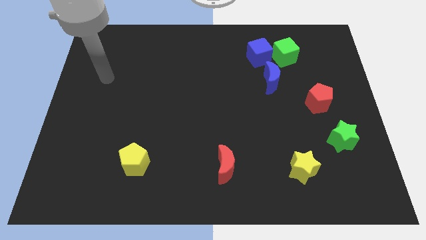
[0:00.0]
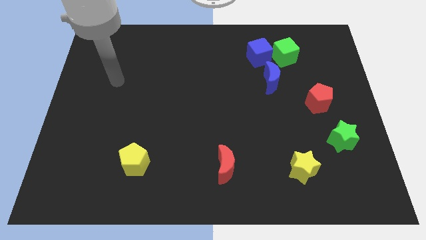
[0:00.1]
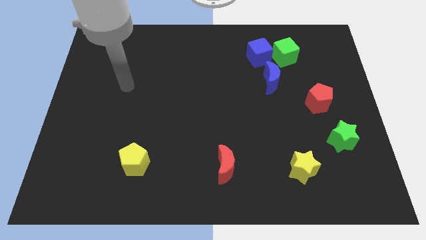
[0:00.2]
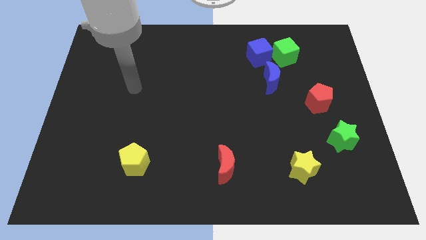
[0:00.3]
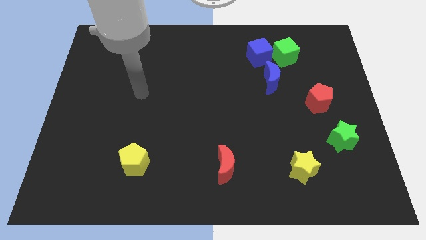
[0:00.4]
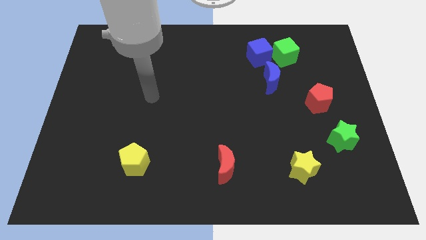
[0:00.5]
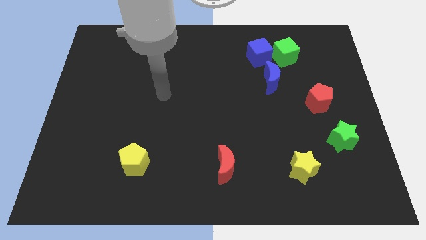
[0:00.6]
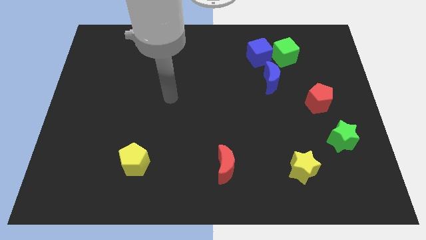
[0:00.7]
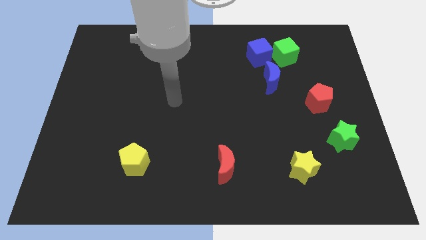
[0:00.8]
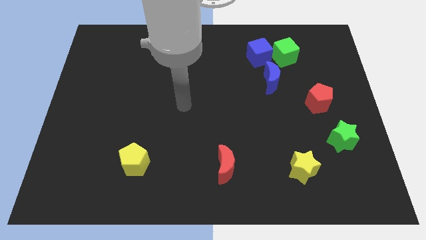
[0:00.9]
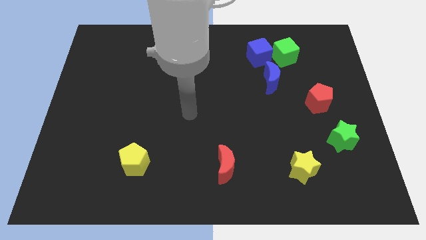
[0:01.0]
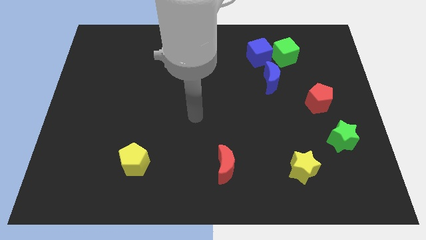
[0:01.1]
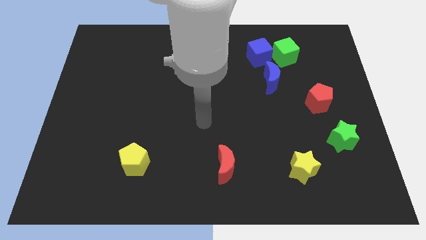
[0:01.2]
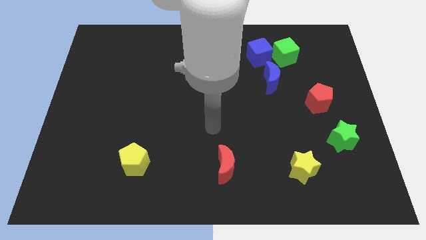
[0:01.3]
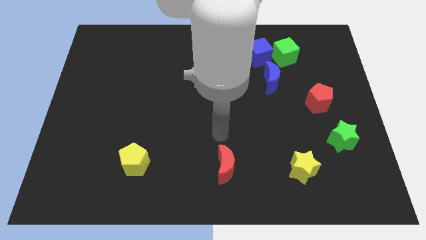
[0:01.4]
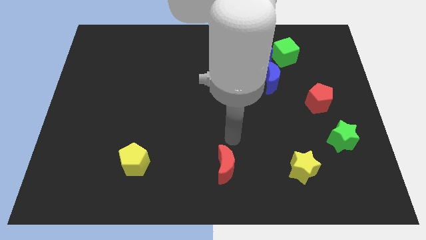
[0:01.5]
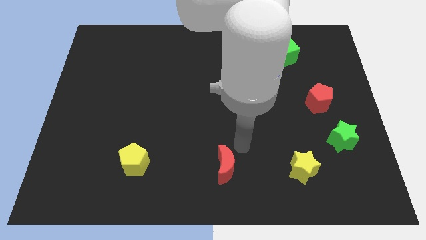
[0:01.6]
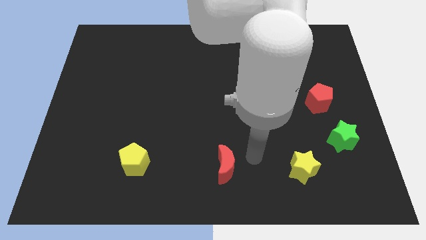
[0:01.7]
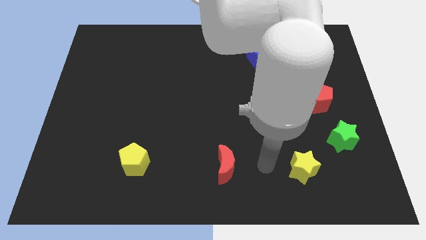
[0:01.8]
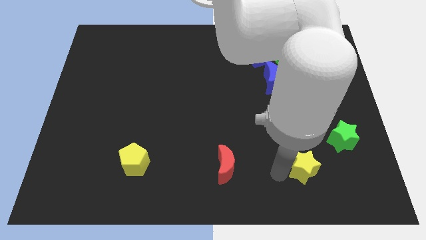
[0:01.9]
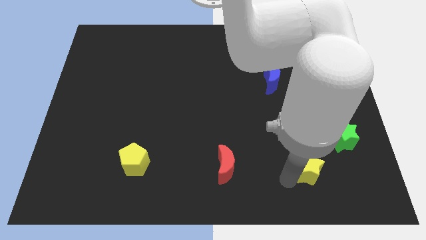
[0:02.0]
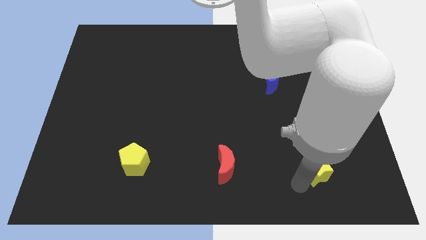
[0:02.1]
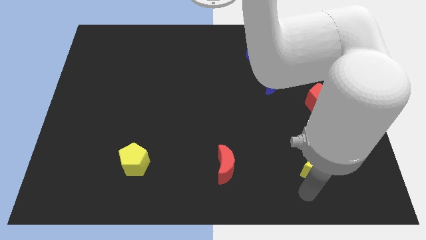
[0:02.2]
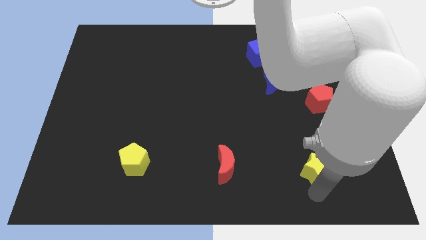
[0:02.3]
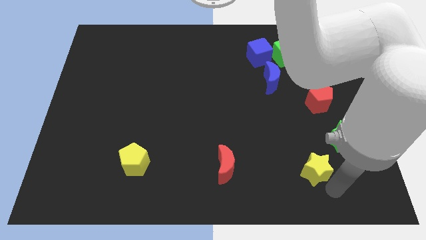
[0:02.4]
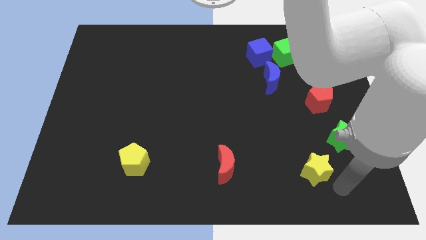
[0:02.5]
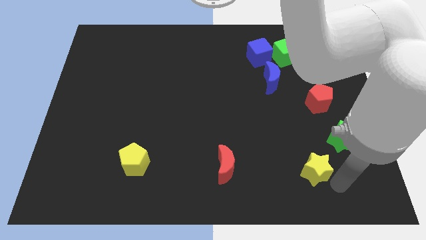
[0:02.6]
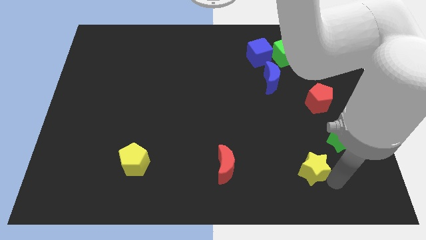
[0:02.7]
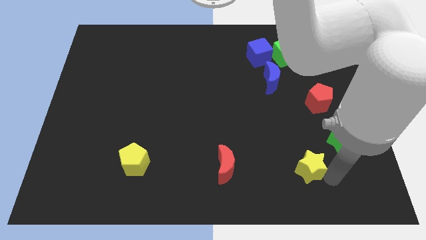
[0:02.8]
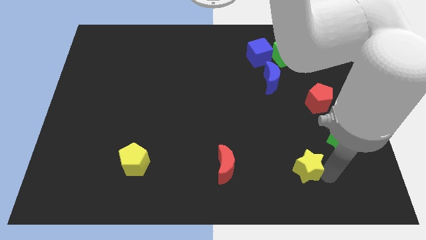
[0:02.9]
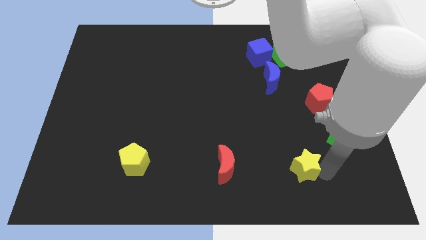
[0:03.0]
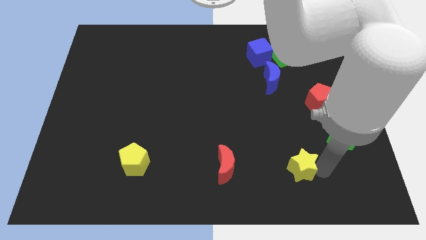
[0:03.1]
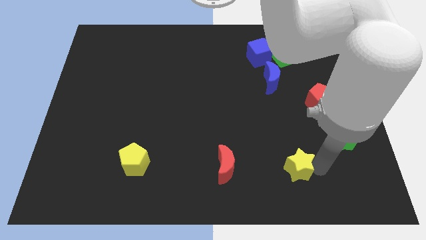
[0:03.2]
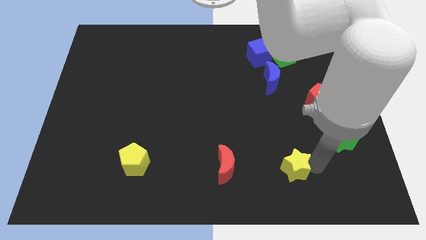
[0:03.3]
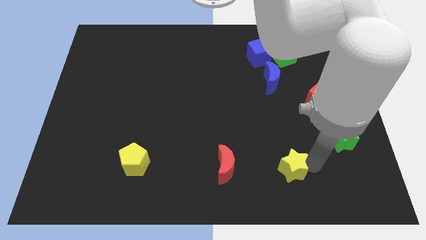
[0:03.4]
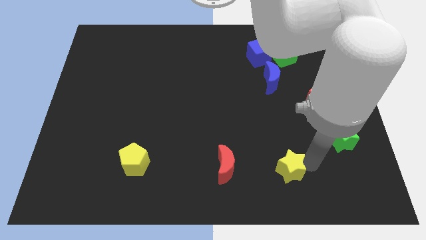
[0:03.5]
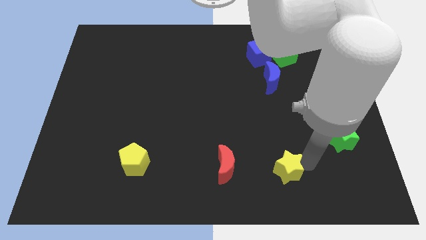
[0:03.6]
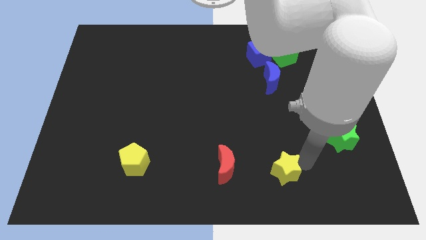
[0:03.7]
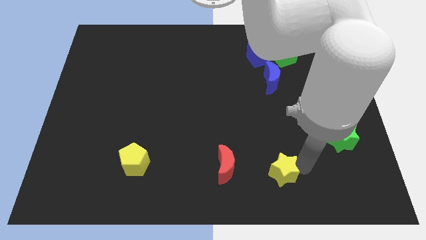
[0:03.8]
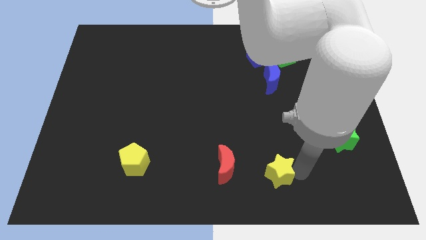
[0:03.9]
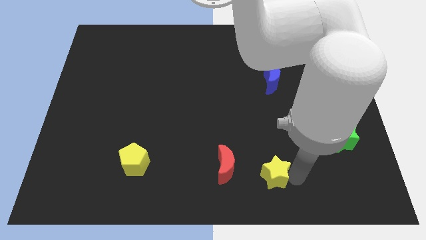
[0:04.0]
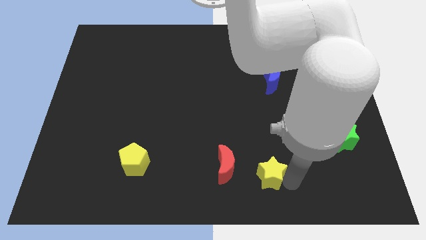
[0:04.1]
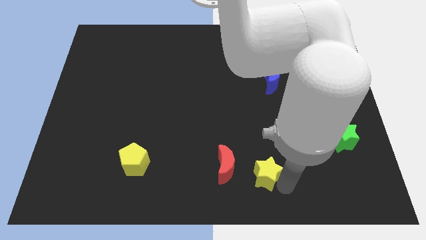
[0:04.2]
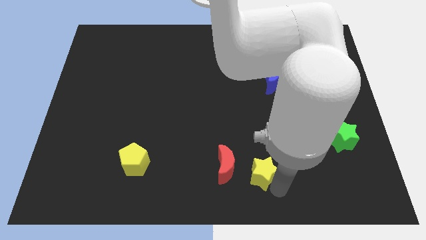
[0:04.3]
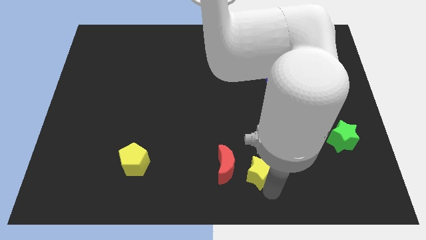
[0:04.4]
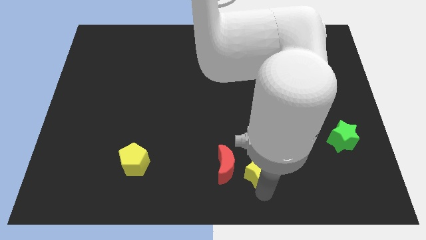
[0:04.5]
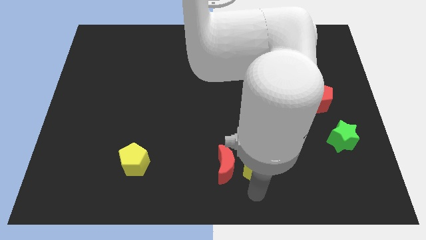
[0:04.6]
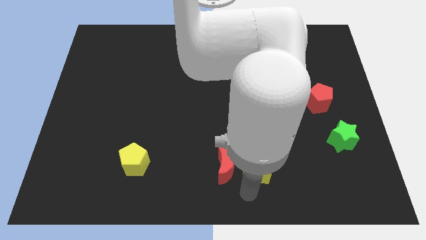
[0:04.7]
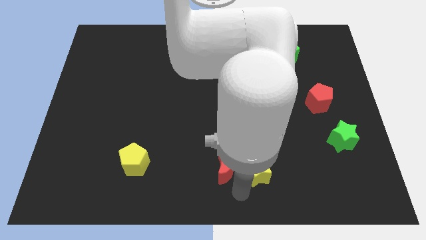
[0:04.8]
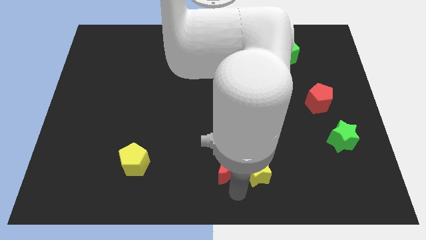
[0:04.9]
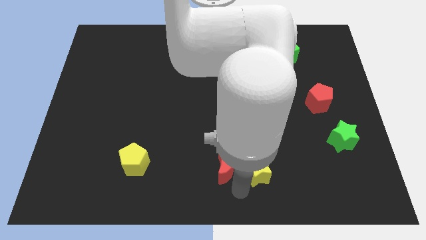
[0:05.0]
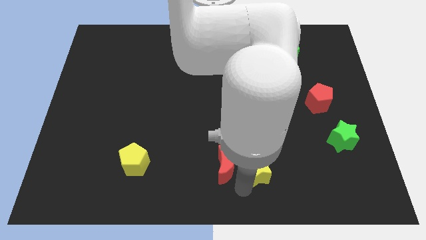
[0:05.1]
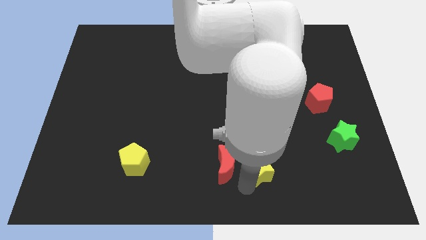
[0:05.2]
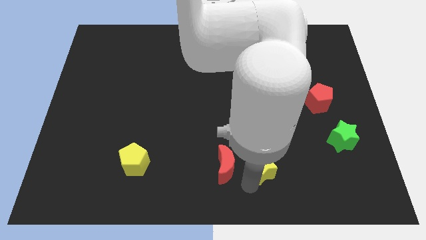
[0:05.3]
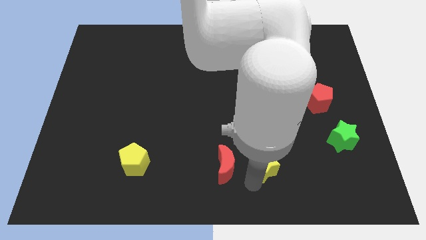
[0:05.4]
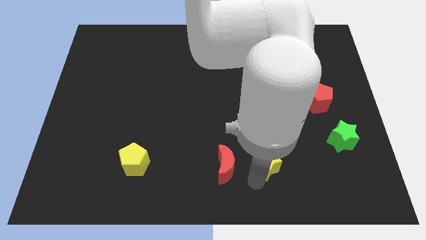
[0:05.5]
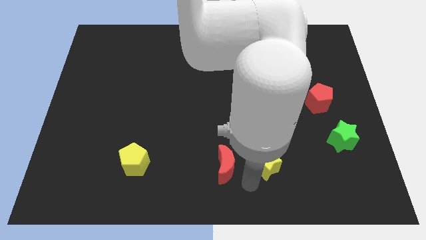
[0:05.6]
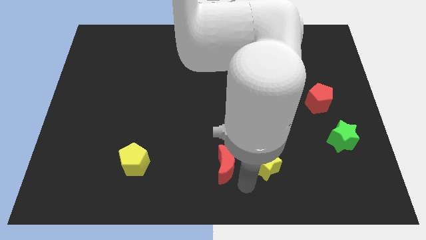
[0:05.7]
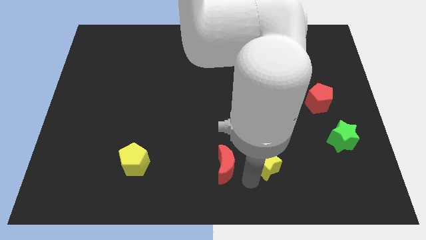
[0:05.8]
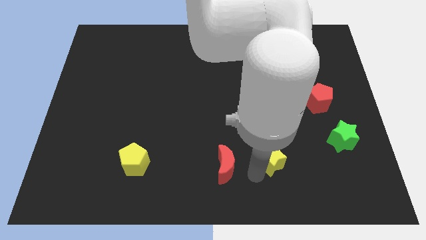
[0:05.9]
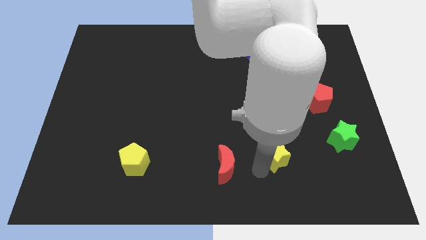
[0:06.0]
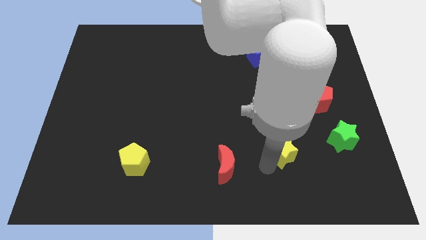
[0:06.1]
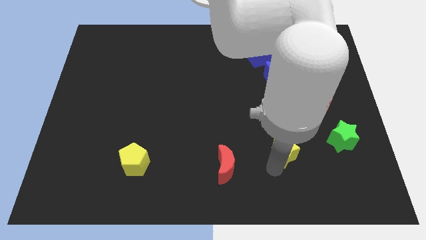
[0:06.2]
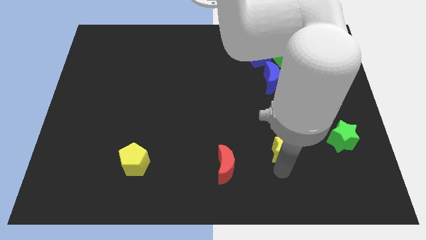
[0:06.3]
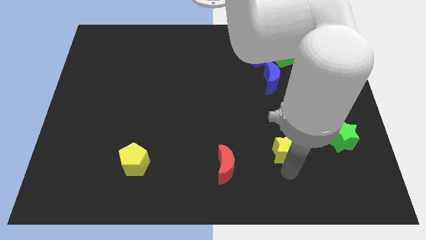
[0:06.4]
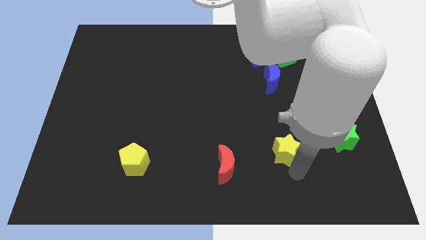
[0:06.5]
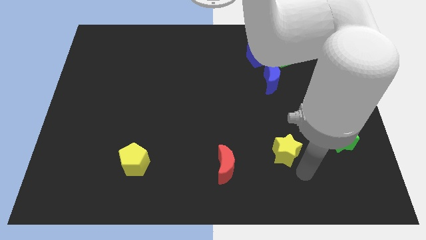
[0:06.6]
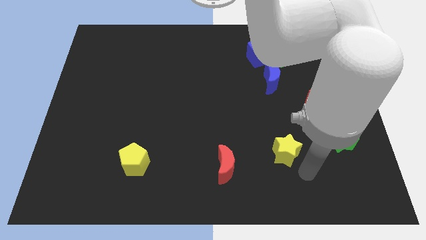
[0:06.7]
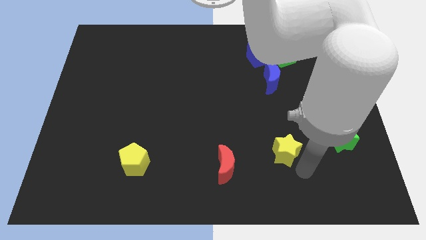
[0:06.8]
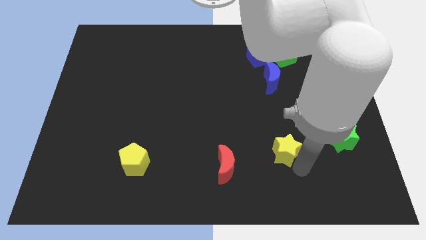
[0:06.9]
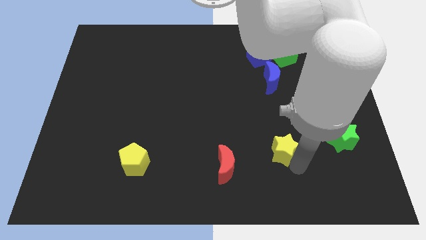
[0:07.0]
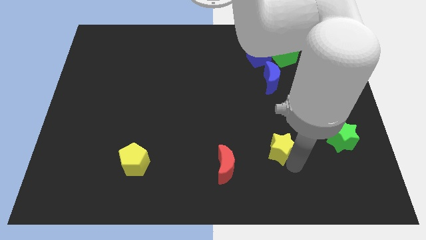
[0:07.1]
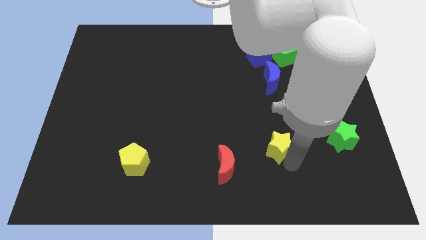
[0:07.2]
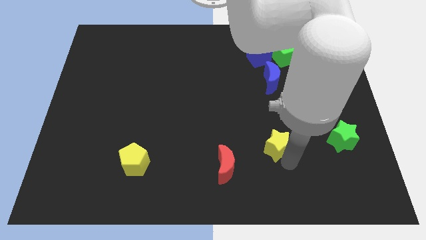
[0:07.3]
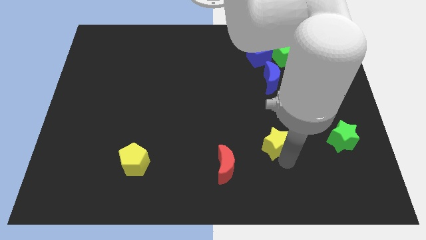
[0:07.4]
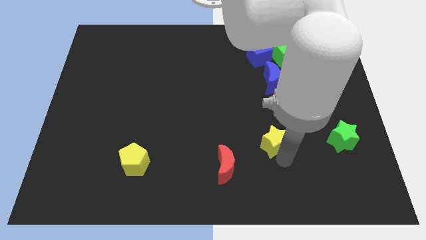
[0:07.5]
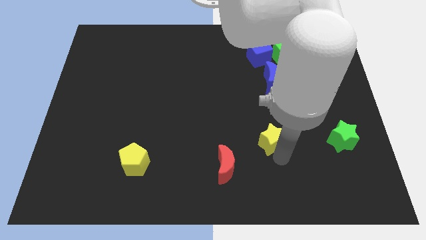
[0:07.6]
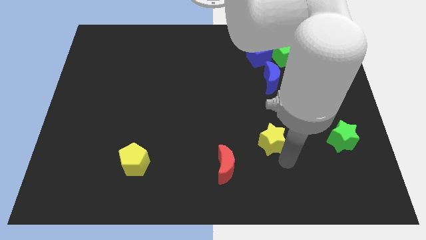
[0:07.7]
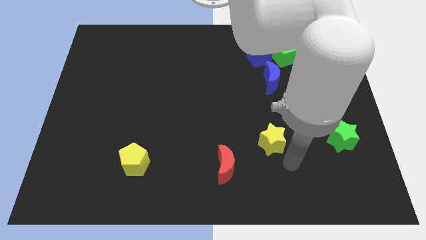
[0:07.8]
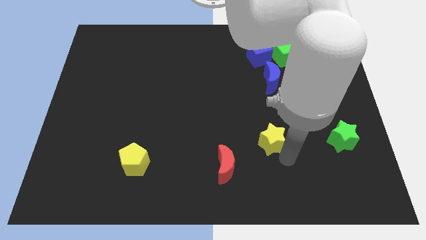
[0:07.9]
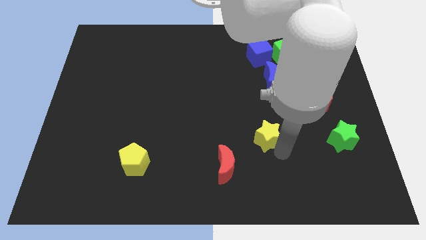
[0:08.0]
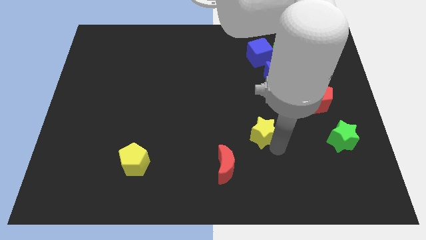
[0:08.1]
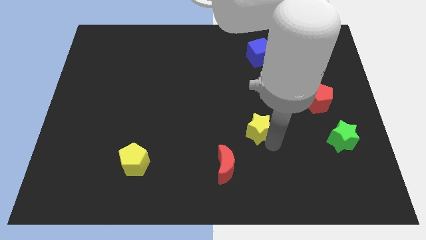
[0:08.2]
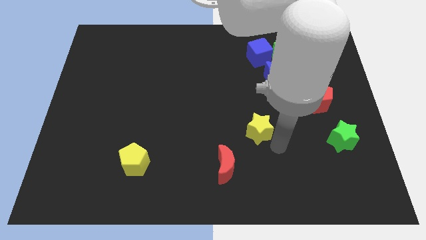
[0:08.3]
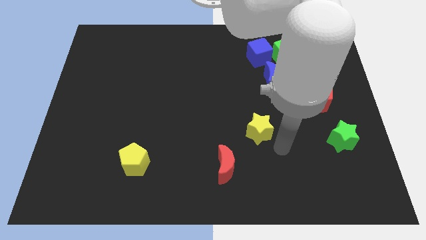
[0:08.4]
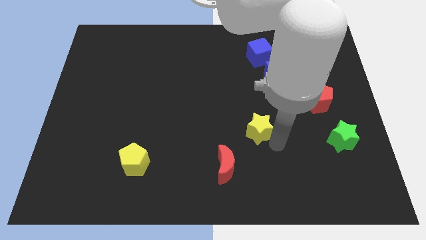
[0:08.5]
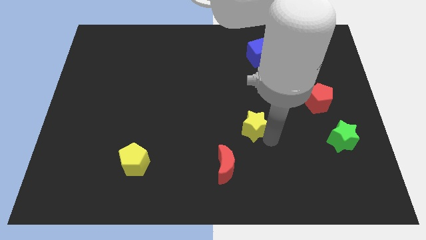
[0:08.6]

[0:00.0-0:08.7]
slide the yellow star to the center
